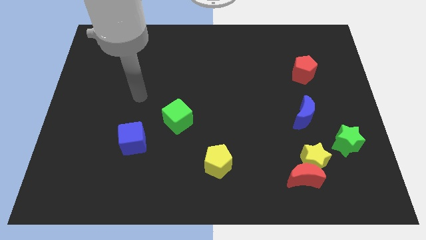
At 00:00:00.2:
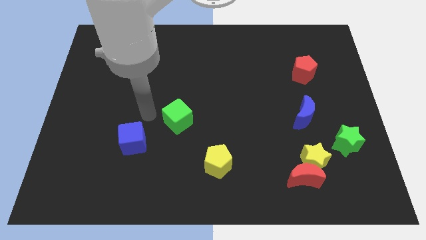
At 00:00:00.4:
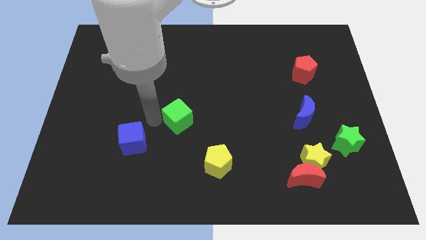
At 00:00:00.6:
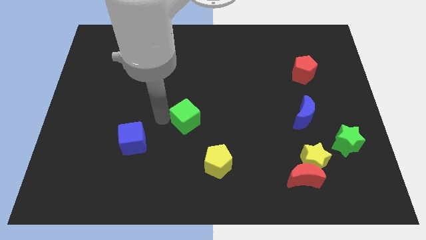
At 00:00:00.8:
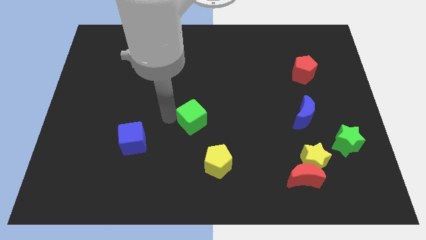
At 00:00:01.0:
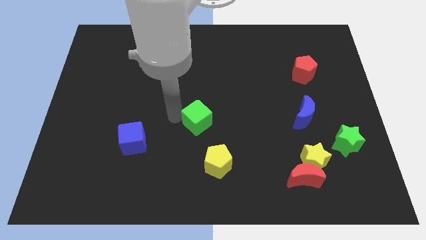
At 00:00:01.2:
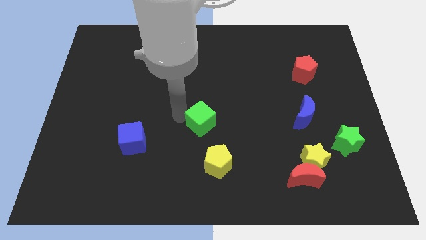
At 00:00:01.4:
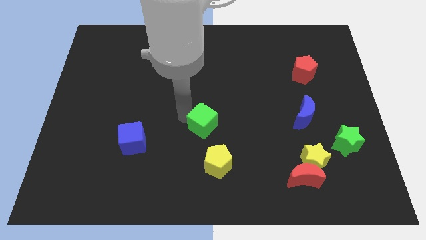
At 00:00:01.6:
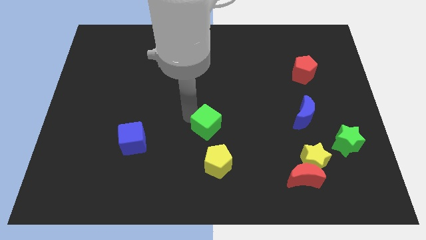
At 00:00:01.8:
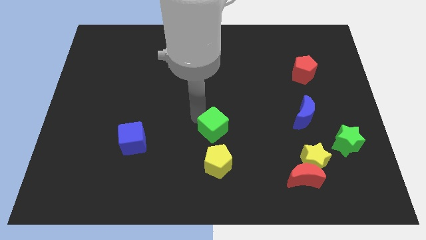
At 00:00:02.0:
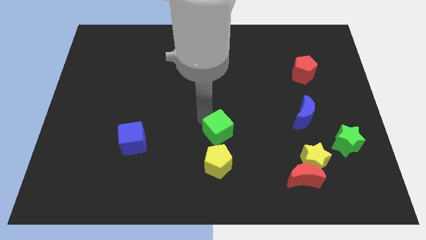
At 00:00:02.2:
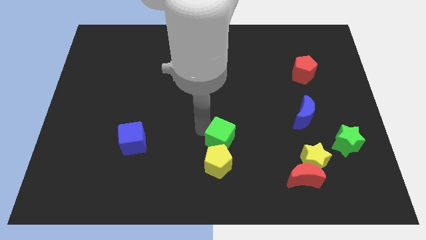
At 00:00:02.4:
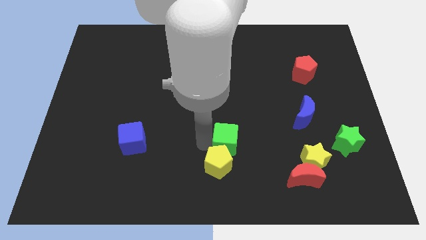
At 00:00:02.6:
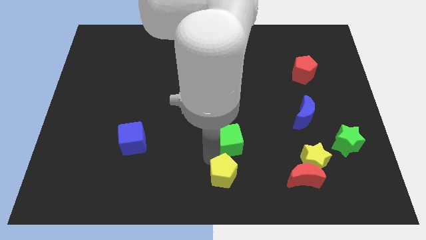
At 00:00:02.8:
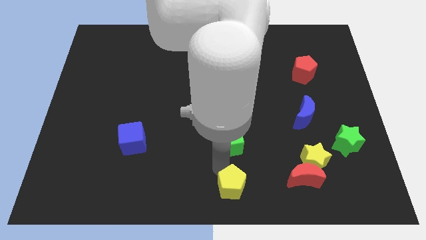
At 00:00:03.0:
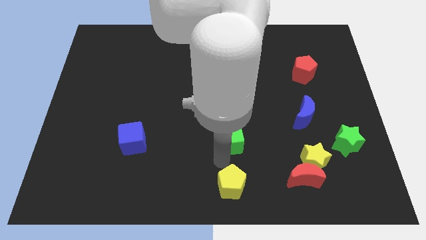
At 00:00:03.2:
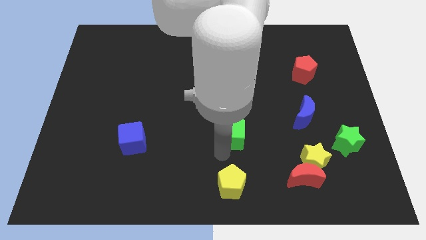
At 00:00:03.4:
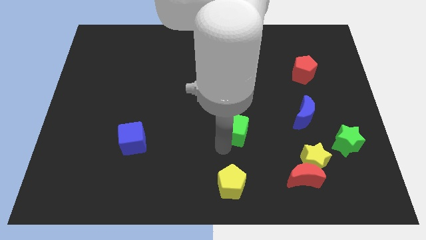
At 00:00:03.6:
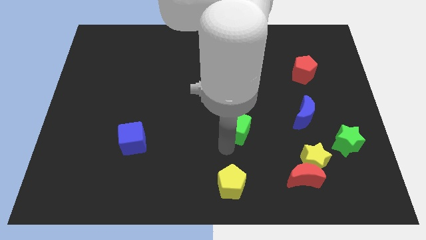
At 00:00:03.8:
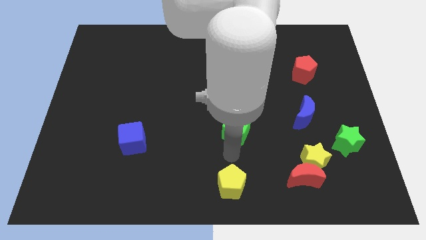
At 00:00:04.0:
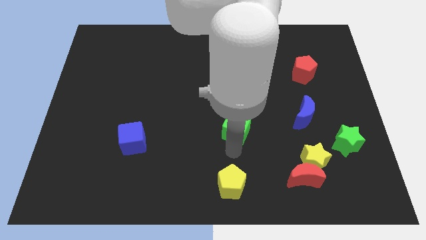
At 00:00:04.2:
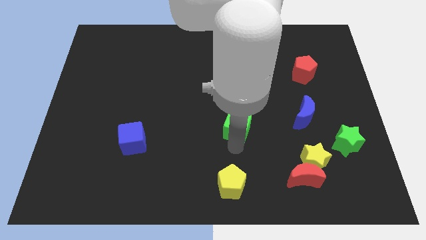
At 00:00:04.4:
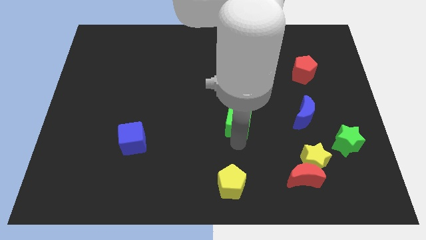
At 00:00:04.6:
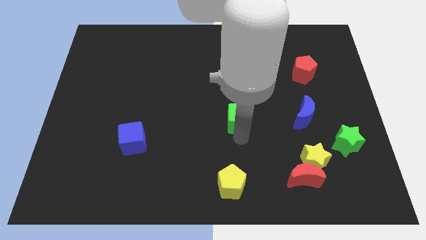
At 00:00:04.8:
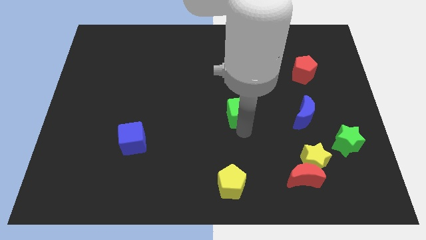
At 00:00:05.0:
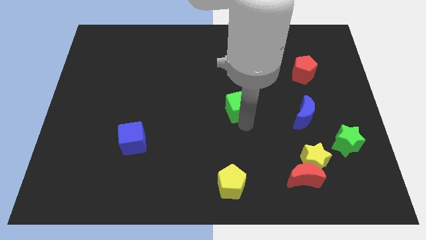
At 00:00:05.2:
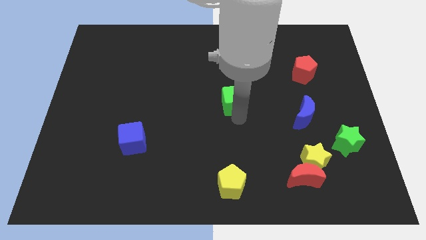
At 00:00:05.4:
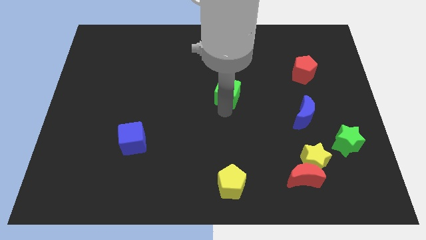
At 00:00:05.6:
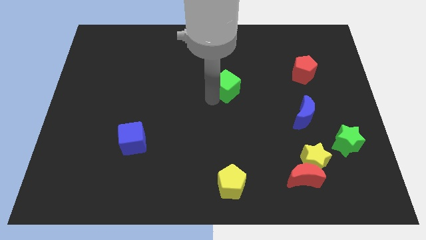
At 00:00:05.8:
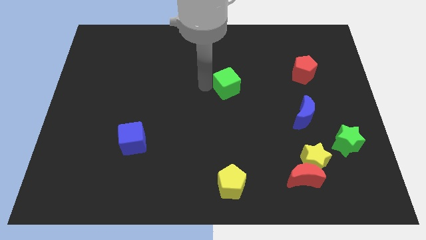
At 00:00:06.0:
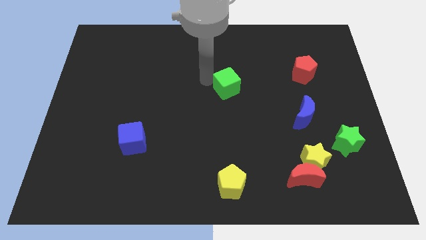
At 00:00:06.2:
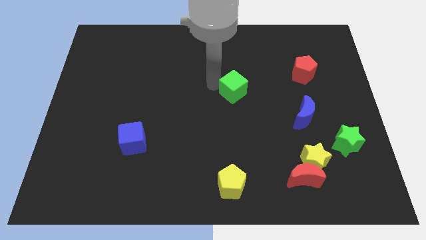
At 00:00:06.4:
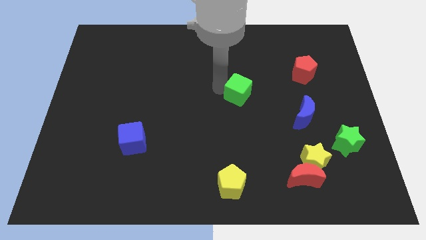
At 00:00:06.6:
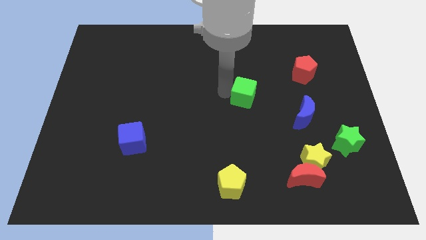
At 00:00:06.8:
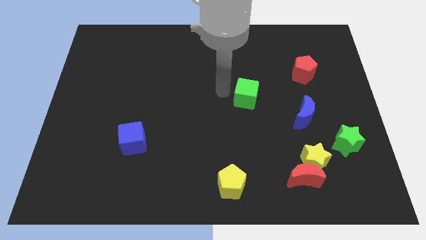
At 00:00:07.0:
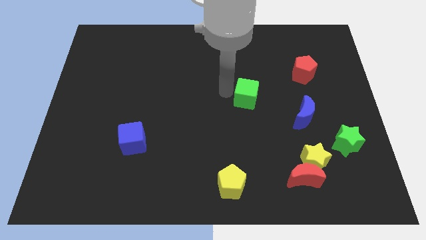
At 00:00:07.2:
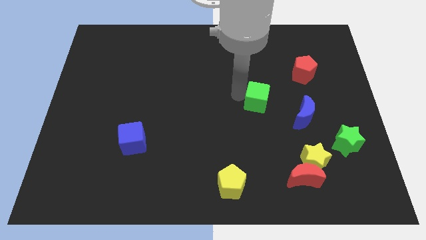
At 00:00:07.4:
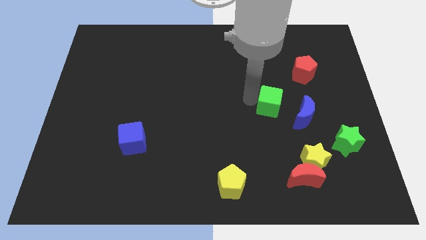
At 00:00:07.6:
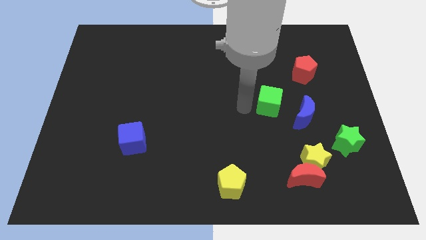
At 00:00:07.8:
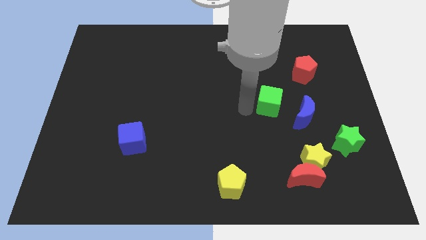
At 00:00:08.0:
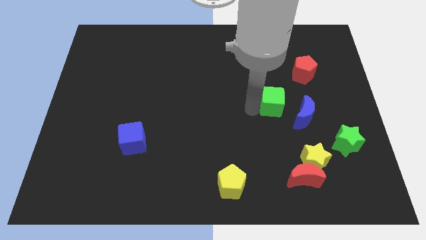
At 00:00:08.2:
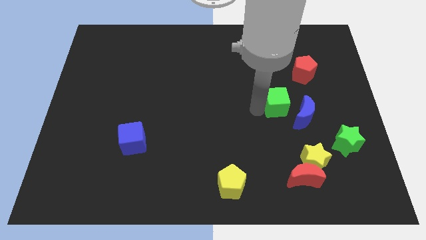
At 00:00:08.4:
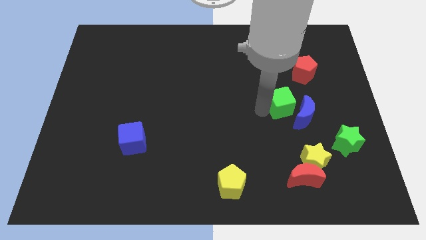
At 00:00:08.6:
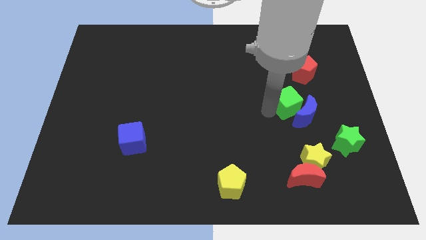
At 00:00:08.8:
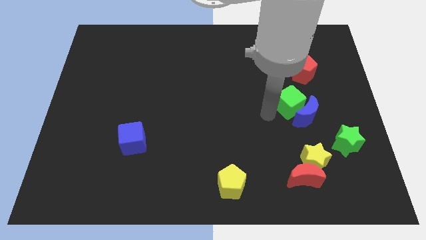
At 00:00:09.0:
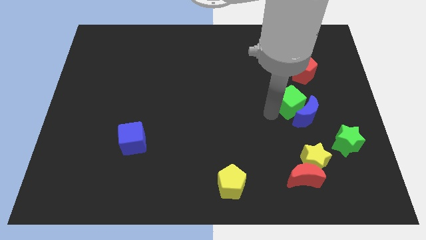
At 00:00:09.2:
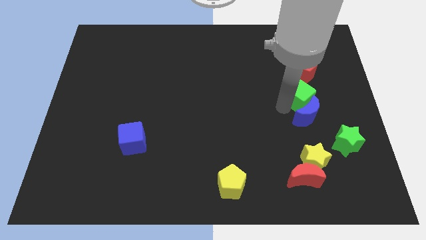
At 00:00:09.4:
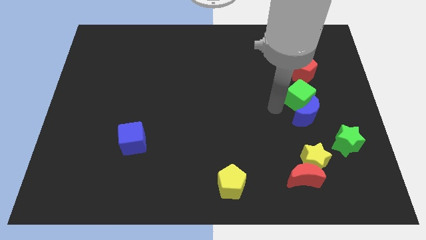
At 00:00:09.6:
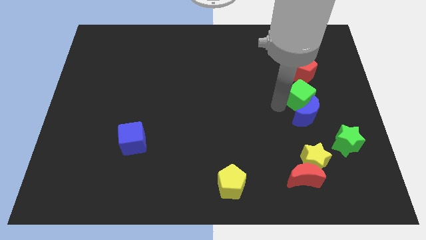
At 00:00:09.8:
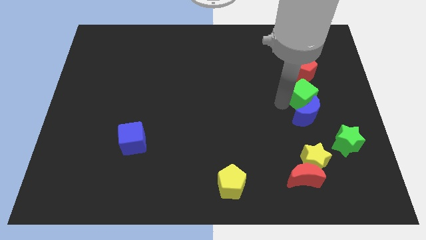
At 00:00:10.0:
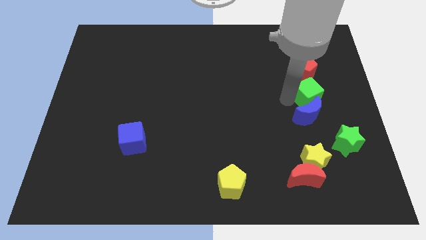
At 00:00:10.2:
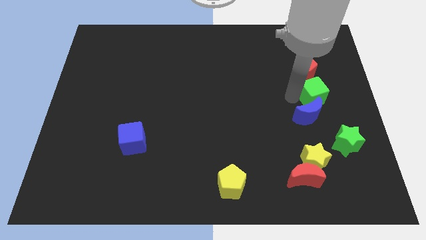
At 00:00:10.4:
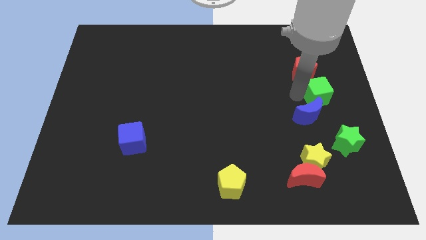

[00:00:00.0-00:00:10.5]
slide the green cube to the right side of the board

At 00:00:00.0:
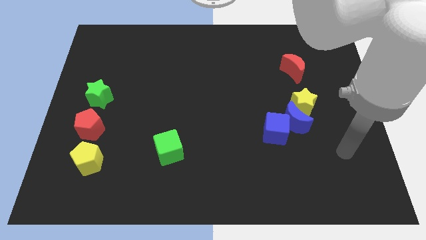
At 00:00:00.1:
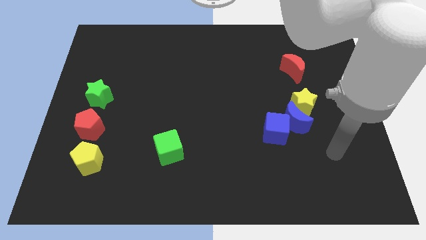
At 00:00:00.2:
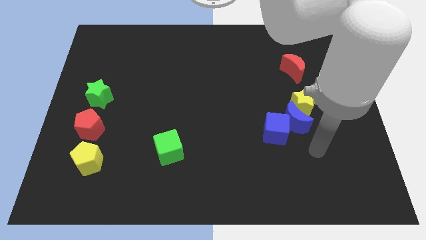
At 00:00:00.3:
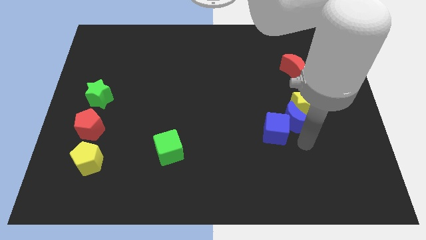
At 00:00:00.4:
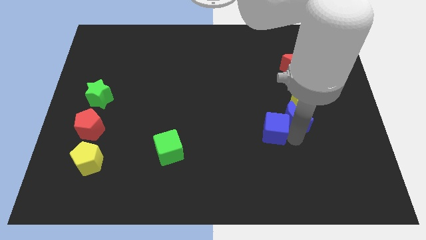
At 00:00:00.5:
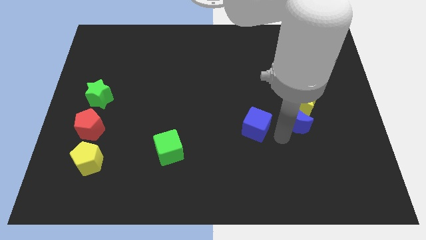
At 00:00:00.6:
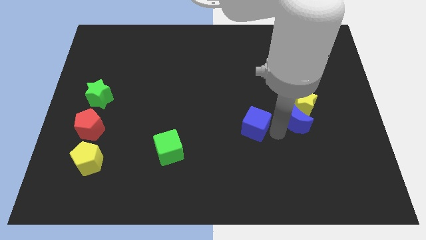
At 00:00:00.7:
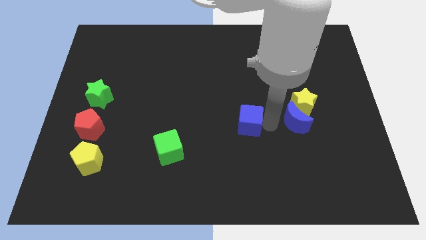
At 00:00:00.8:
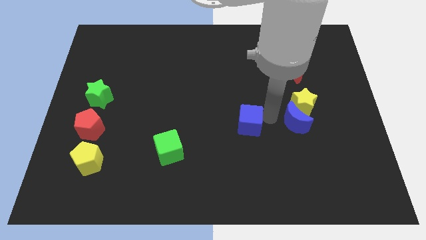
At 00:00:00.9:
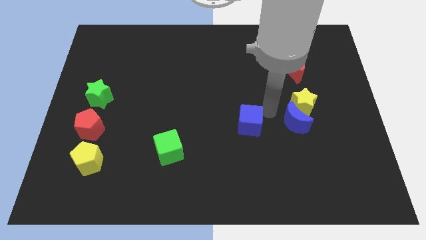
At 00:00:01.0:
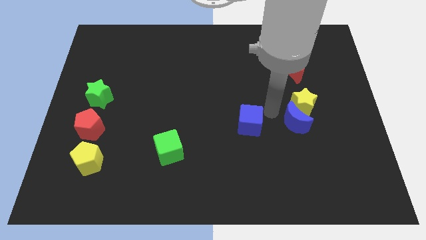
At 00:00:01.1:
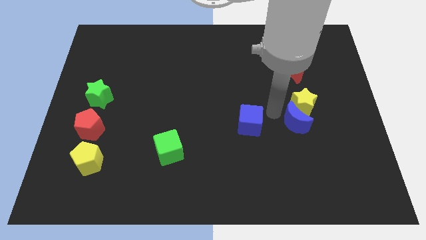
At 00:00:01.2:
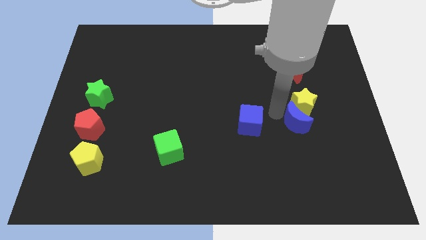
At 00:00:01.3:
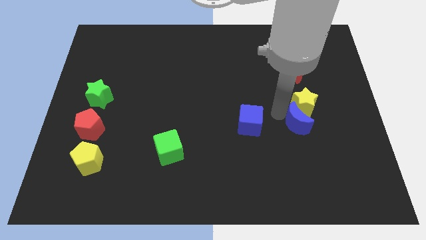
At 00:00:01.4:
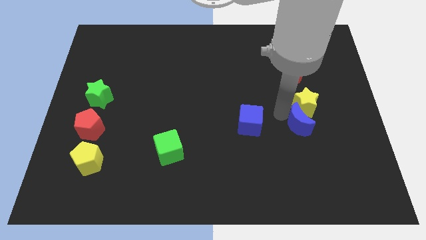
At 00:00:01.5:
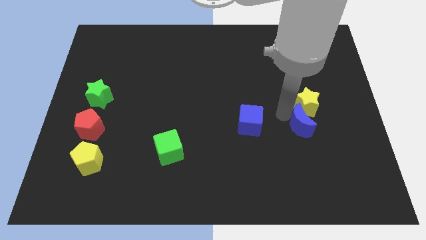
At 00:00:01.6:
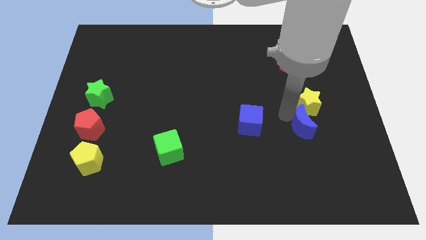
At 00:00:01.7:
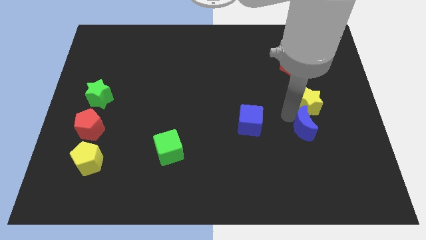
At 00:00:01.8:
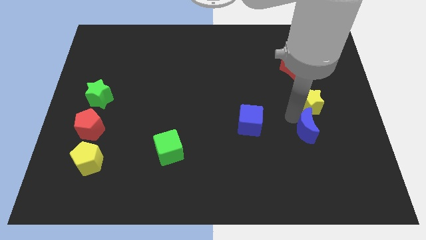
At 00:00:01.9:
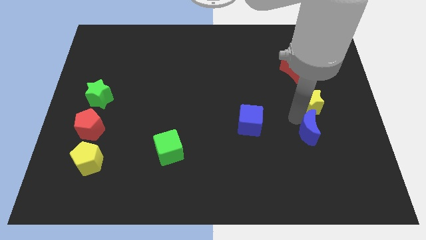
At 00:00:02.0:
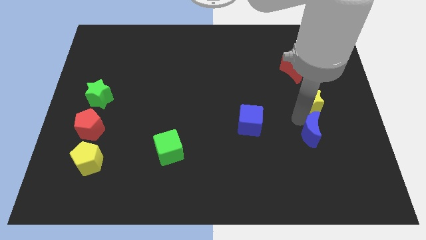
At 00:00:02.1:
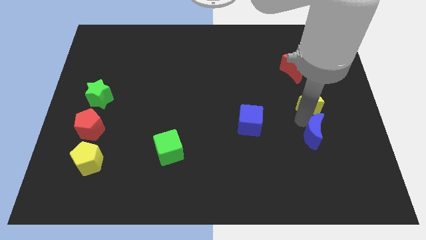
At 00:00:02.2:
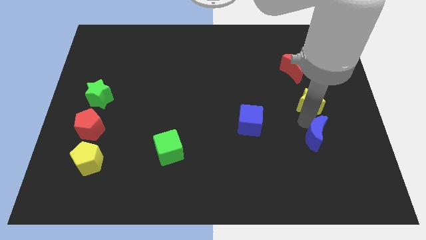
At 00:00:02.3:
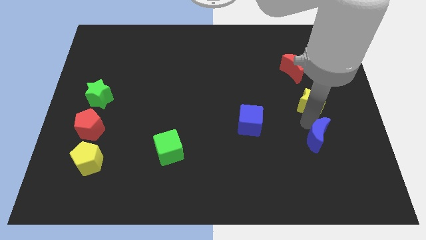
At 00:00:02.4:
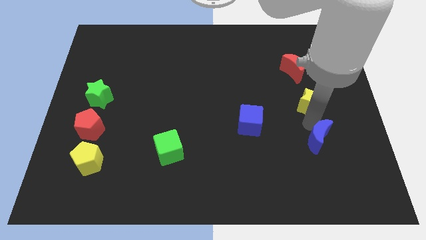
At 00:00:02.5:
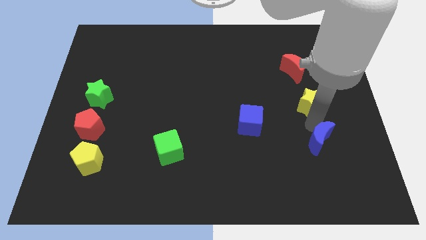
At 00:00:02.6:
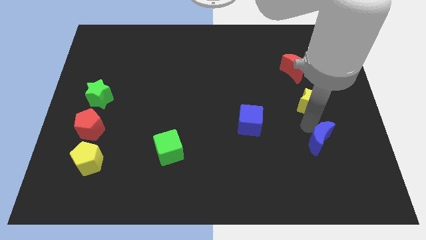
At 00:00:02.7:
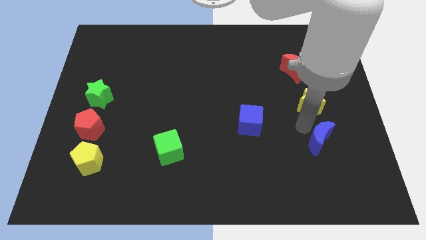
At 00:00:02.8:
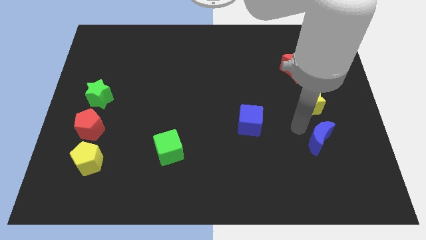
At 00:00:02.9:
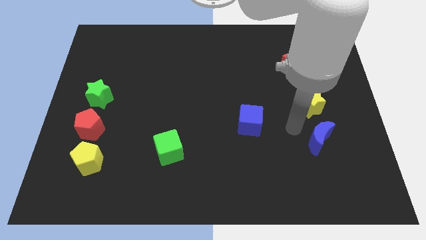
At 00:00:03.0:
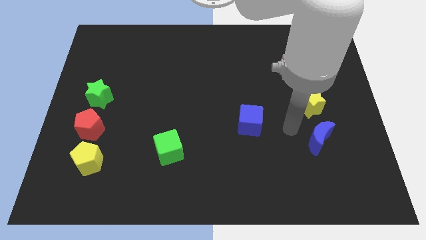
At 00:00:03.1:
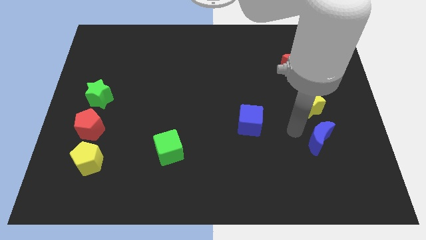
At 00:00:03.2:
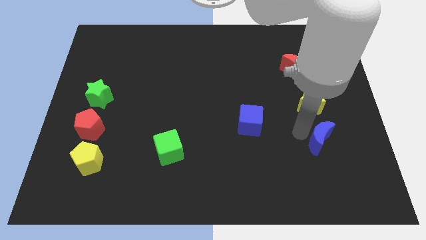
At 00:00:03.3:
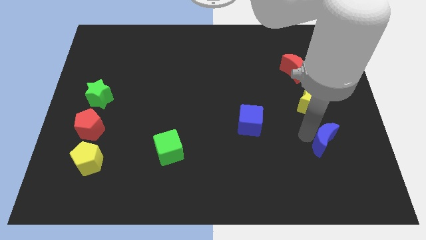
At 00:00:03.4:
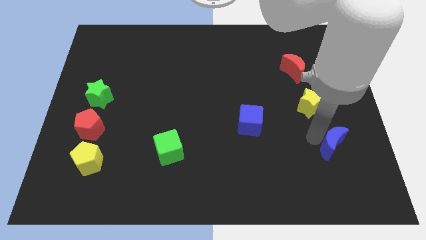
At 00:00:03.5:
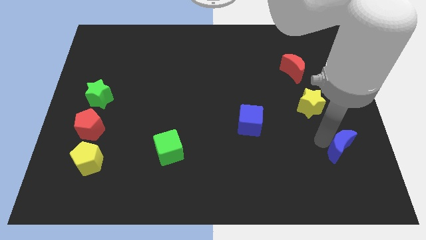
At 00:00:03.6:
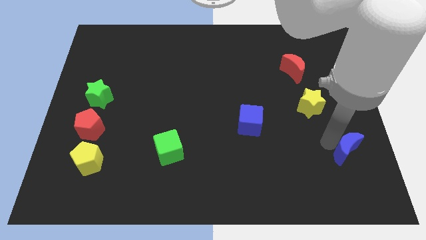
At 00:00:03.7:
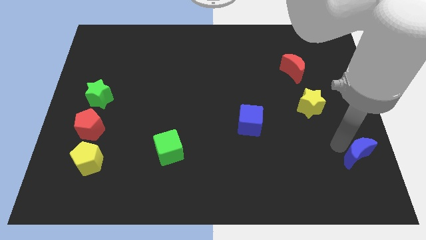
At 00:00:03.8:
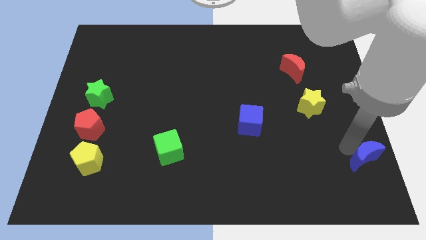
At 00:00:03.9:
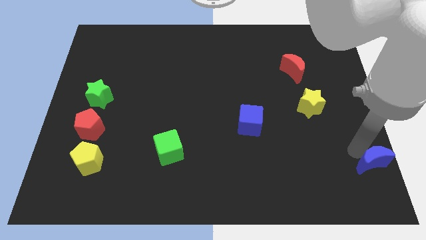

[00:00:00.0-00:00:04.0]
put the blue moon to the bottom right corner
